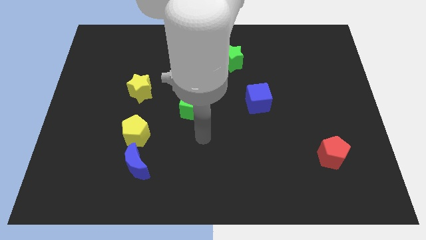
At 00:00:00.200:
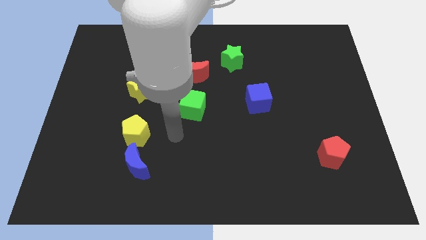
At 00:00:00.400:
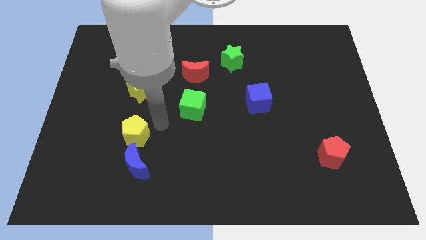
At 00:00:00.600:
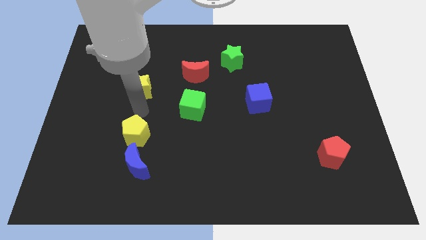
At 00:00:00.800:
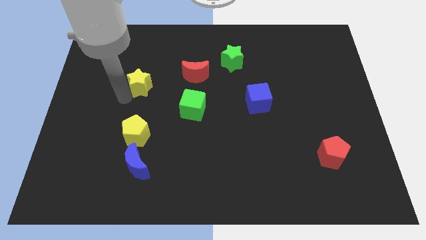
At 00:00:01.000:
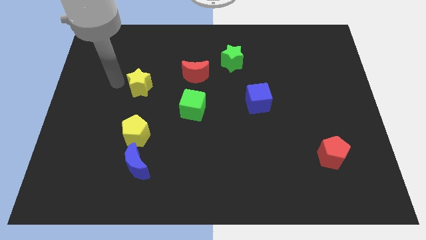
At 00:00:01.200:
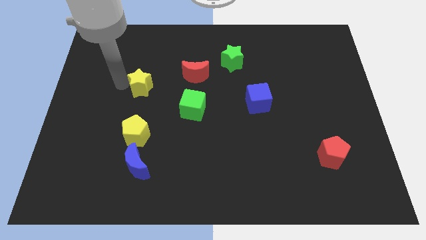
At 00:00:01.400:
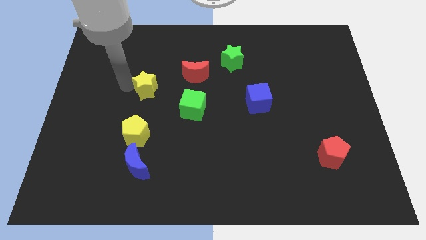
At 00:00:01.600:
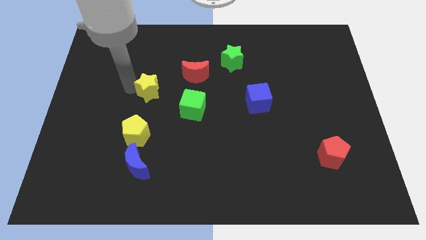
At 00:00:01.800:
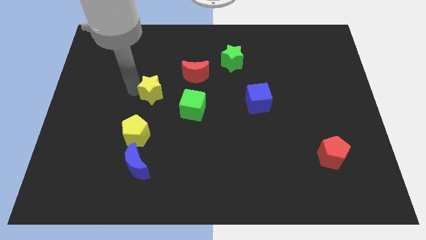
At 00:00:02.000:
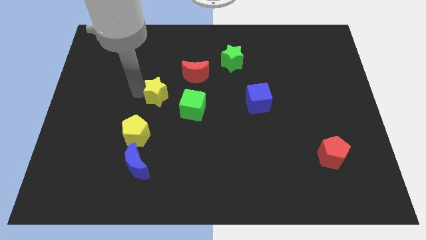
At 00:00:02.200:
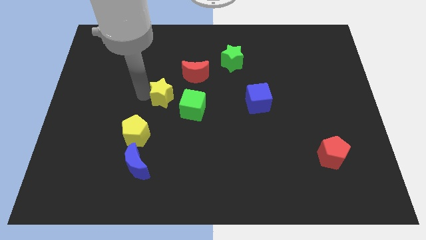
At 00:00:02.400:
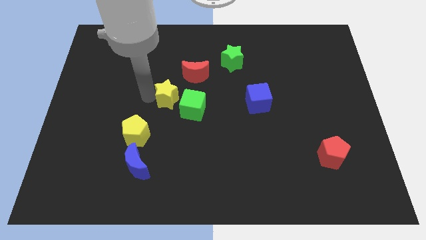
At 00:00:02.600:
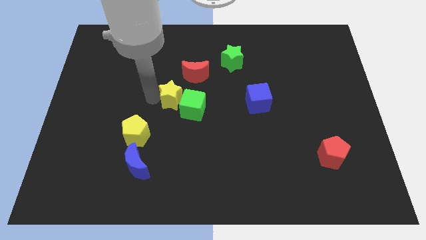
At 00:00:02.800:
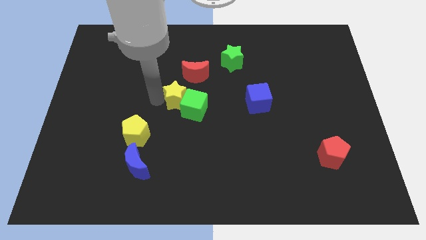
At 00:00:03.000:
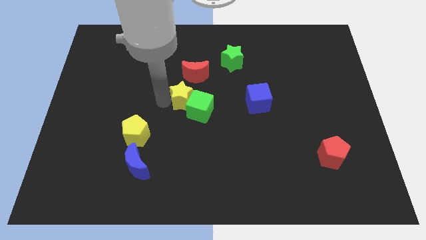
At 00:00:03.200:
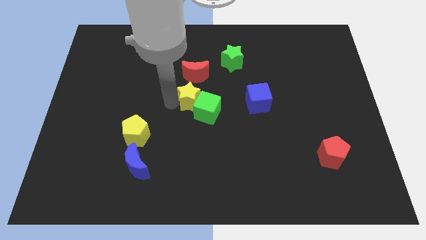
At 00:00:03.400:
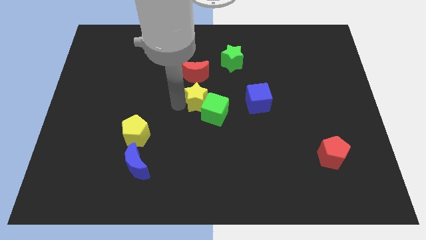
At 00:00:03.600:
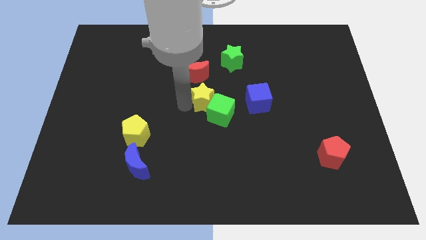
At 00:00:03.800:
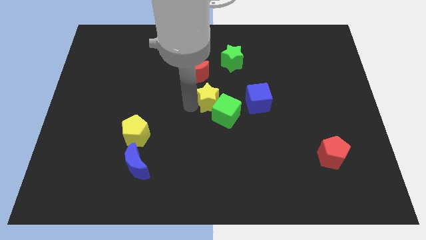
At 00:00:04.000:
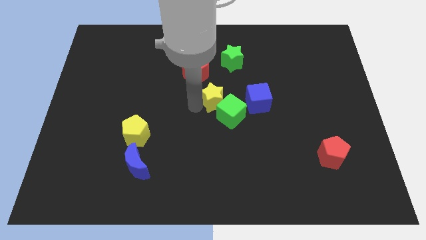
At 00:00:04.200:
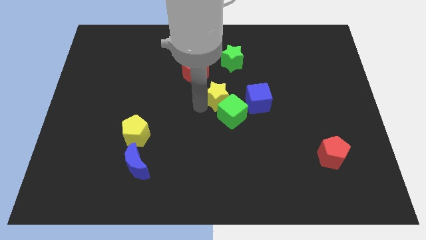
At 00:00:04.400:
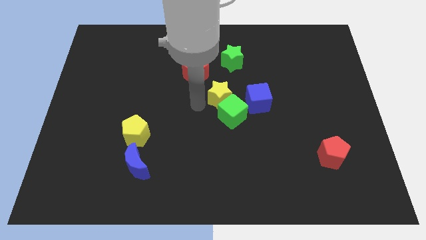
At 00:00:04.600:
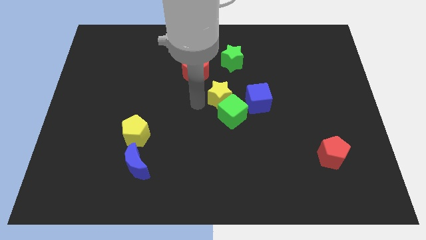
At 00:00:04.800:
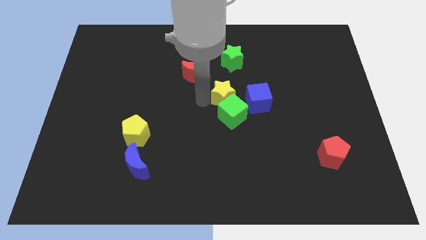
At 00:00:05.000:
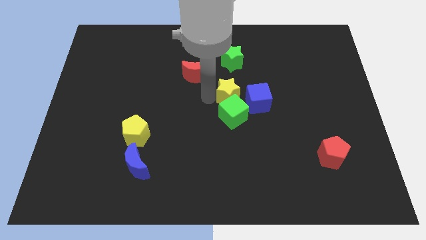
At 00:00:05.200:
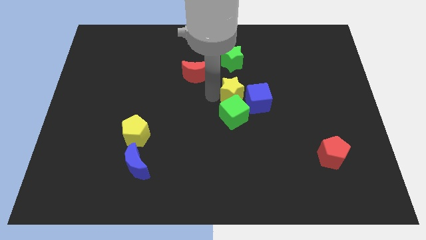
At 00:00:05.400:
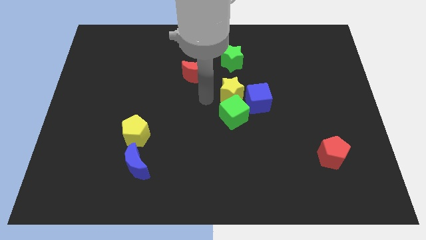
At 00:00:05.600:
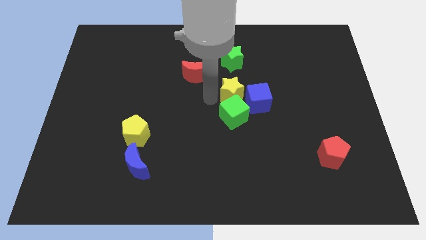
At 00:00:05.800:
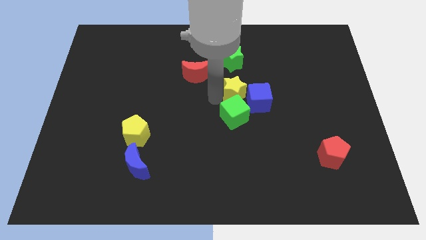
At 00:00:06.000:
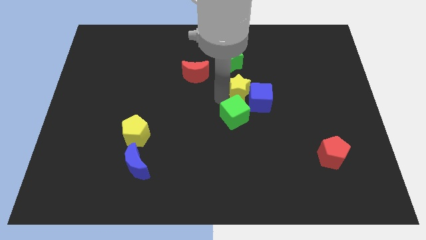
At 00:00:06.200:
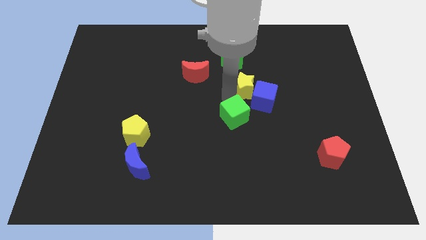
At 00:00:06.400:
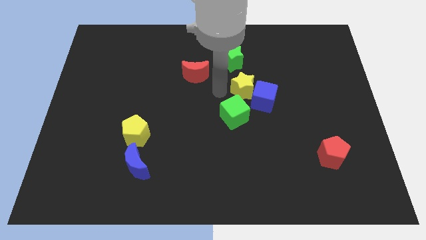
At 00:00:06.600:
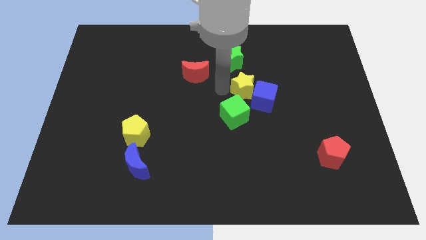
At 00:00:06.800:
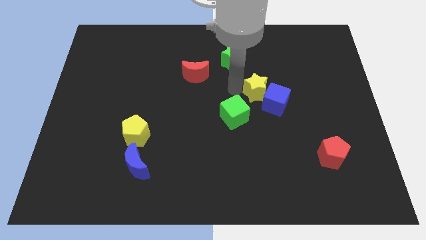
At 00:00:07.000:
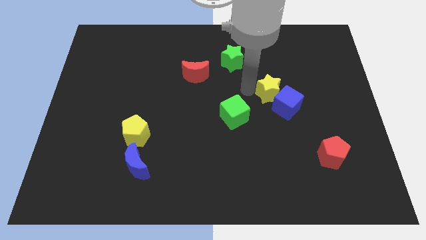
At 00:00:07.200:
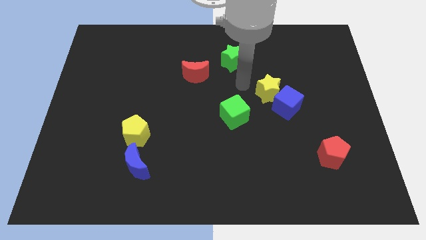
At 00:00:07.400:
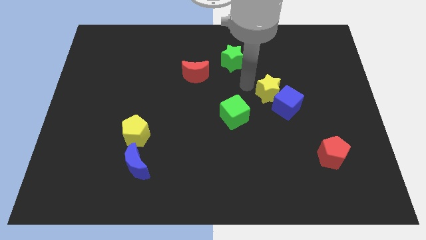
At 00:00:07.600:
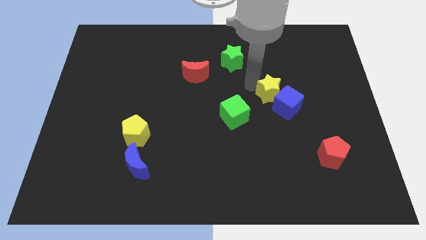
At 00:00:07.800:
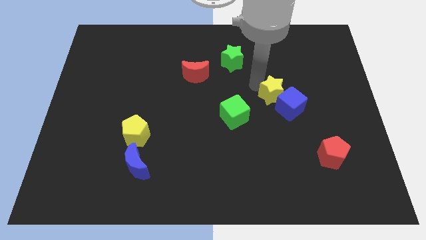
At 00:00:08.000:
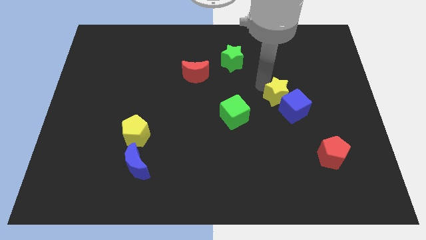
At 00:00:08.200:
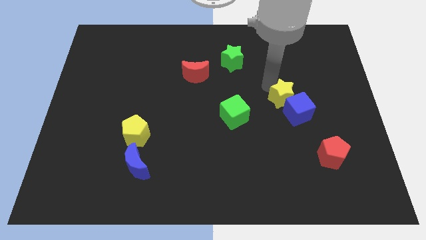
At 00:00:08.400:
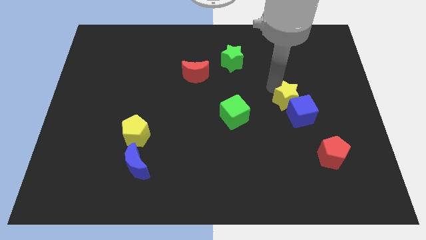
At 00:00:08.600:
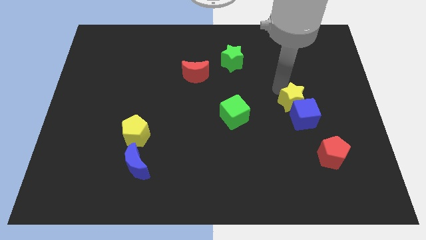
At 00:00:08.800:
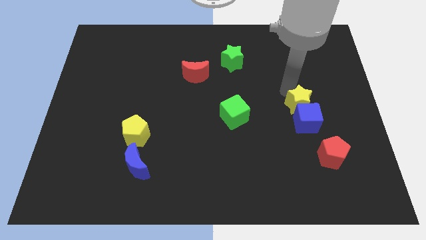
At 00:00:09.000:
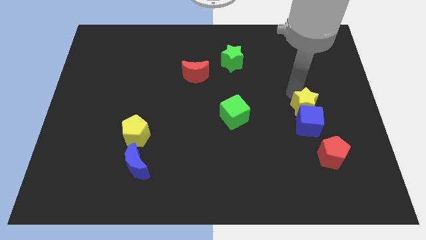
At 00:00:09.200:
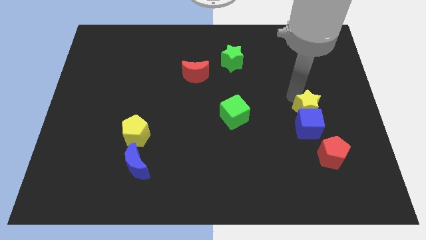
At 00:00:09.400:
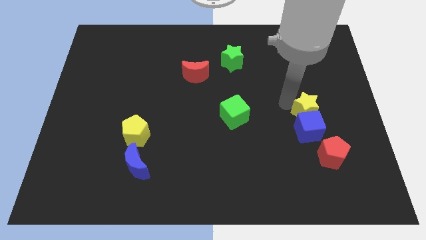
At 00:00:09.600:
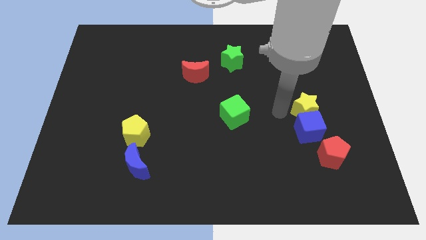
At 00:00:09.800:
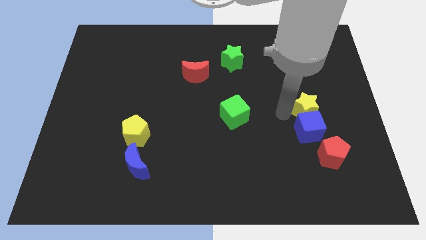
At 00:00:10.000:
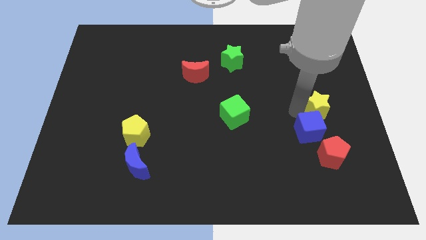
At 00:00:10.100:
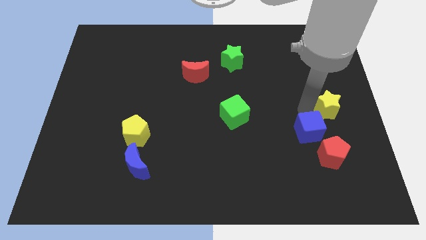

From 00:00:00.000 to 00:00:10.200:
push the yellow star to the right side

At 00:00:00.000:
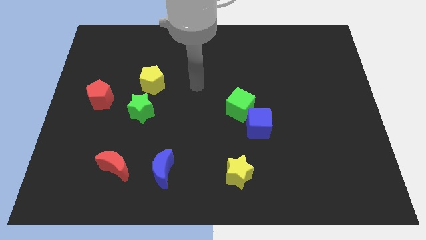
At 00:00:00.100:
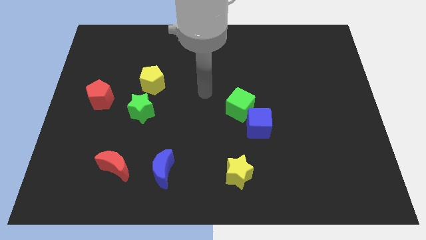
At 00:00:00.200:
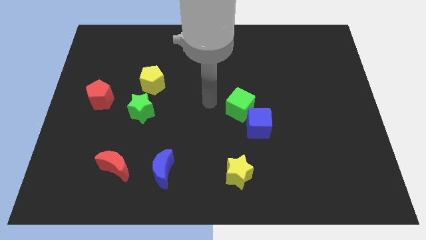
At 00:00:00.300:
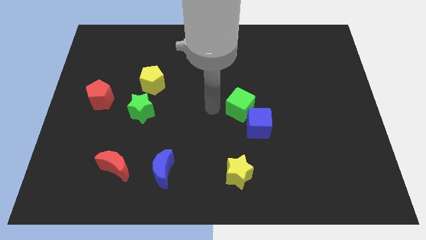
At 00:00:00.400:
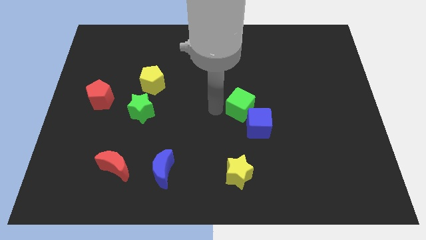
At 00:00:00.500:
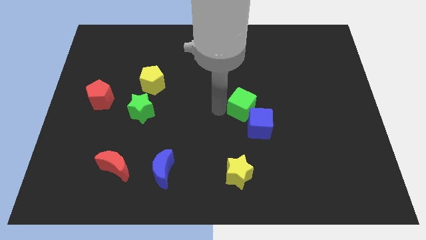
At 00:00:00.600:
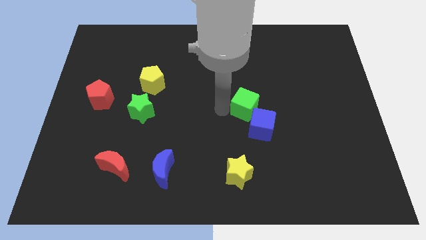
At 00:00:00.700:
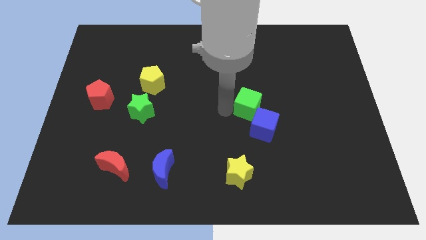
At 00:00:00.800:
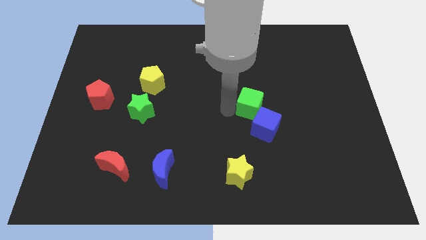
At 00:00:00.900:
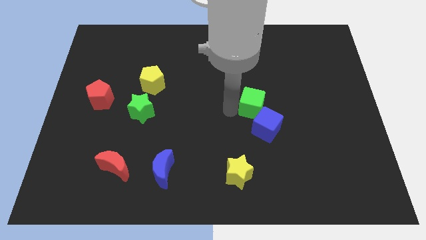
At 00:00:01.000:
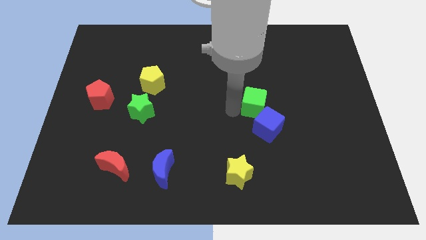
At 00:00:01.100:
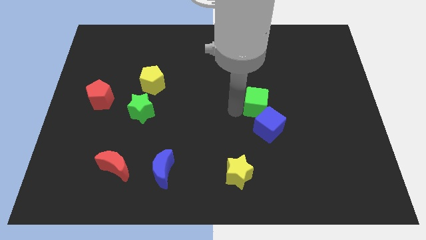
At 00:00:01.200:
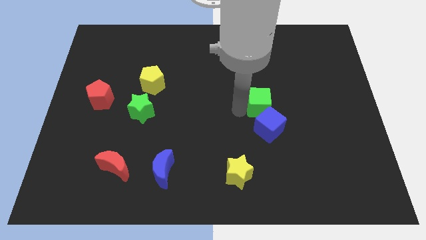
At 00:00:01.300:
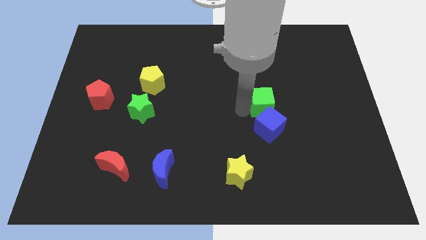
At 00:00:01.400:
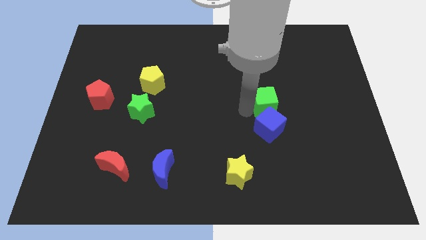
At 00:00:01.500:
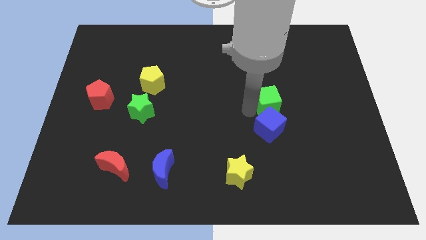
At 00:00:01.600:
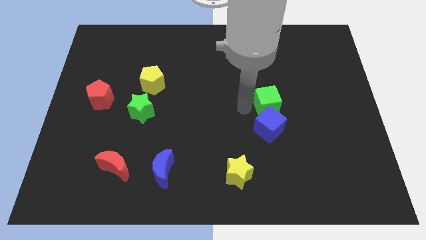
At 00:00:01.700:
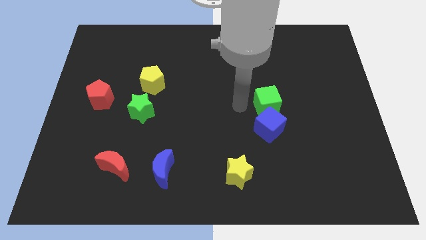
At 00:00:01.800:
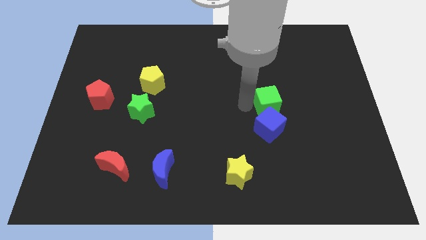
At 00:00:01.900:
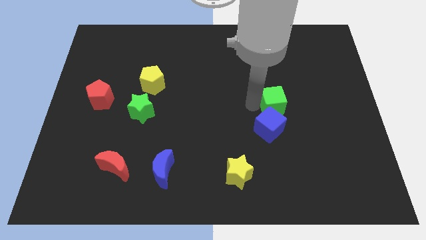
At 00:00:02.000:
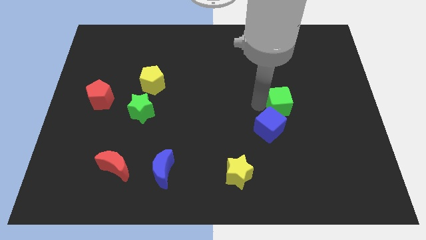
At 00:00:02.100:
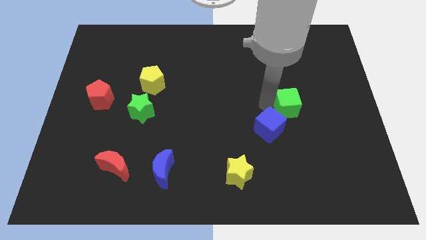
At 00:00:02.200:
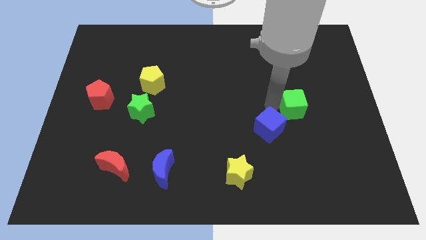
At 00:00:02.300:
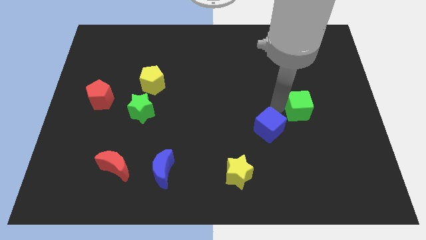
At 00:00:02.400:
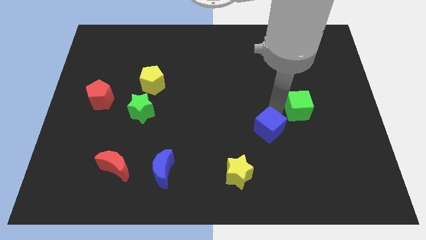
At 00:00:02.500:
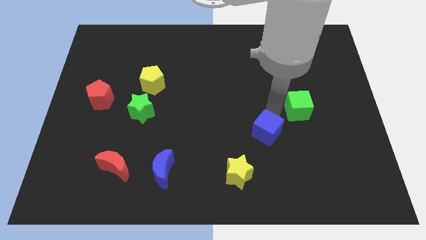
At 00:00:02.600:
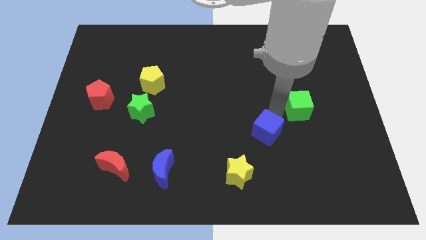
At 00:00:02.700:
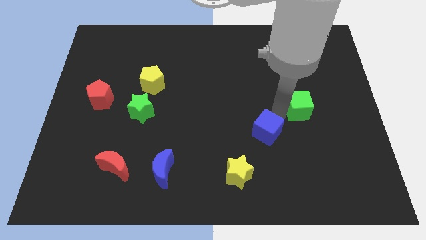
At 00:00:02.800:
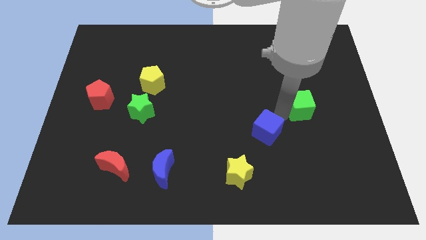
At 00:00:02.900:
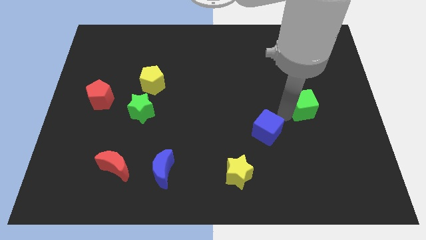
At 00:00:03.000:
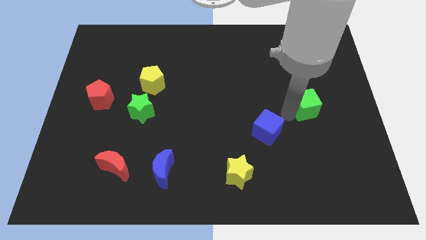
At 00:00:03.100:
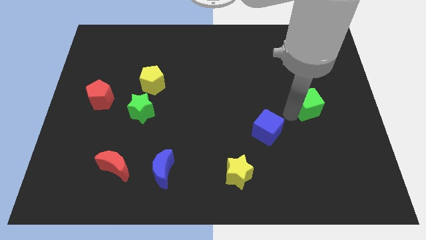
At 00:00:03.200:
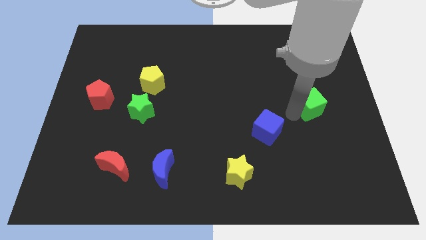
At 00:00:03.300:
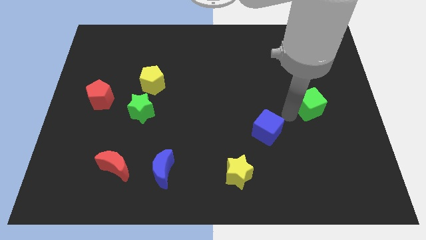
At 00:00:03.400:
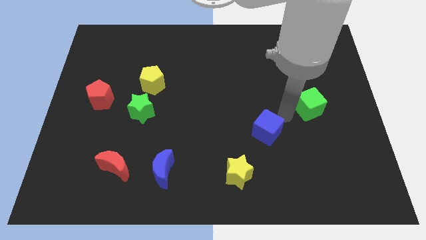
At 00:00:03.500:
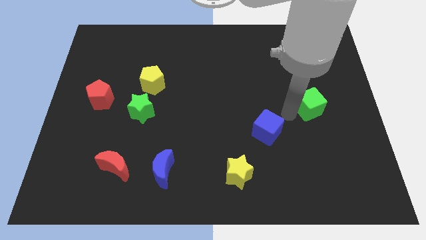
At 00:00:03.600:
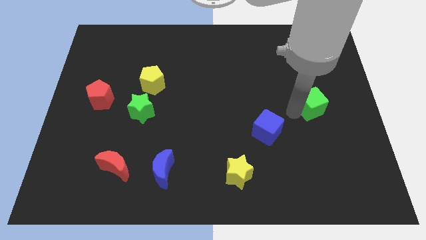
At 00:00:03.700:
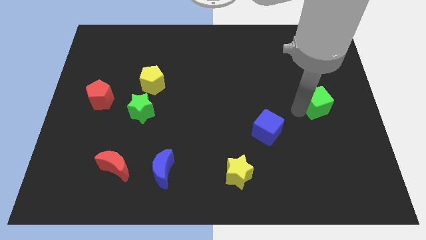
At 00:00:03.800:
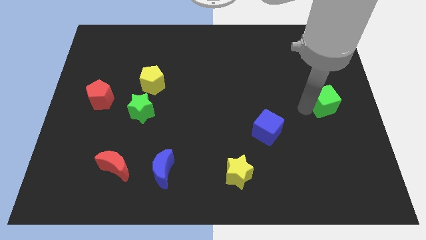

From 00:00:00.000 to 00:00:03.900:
put the green cube to the right side of the board
